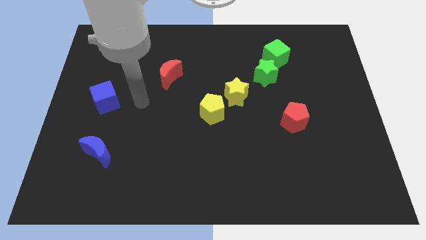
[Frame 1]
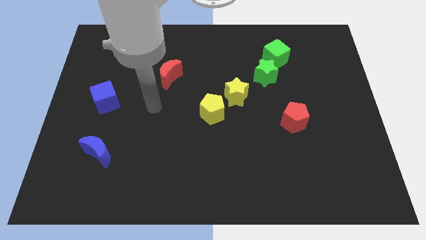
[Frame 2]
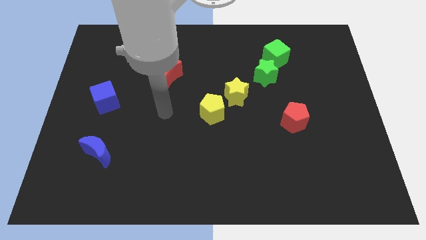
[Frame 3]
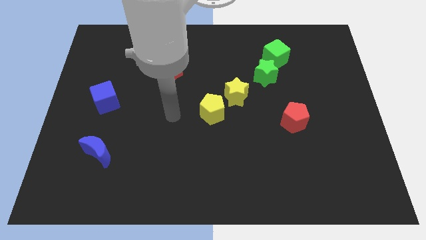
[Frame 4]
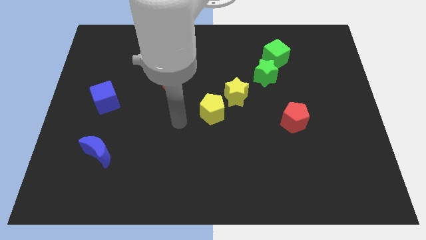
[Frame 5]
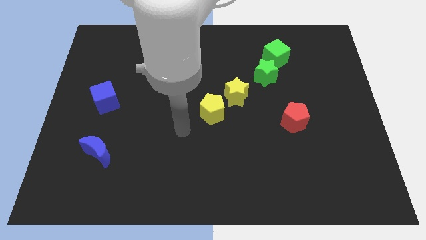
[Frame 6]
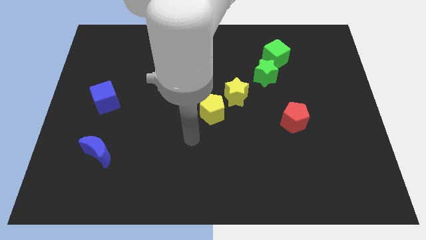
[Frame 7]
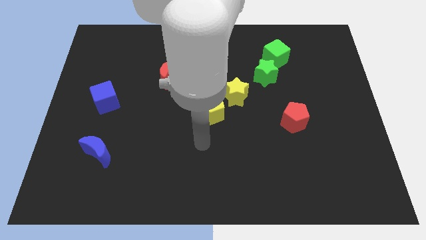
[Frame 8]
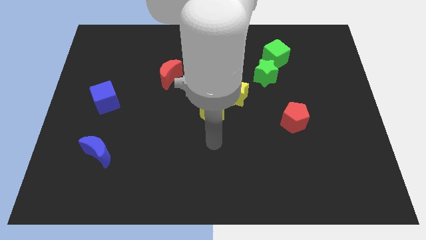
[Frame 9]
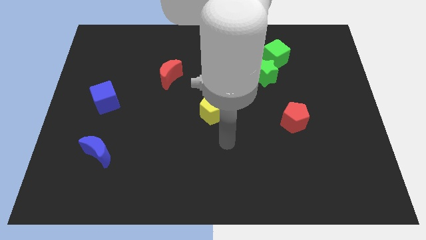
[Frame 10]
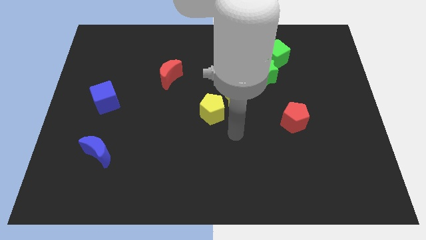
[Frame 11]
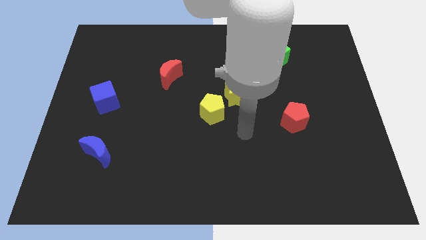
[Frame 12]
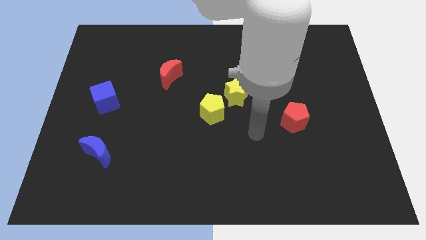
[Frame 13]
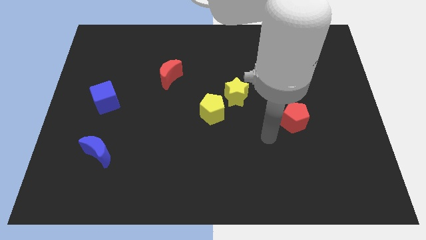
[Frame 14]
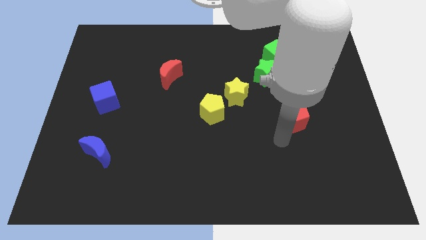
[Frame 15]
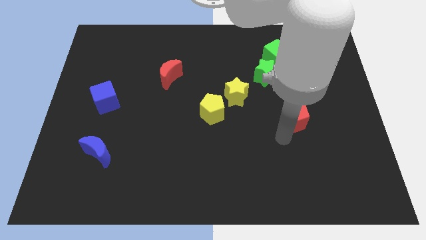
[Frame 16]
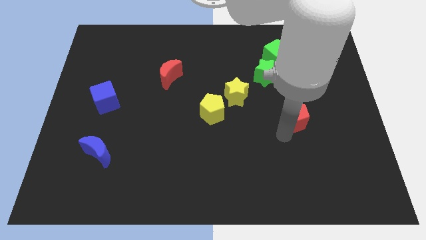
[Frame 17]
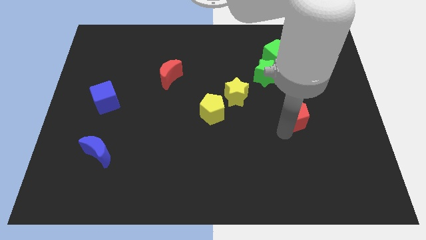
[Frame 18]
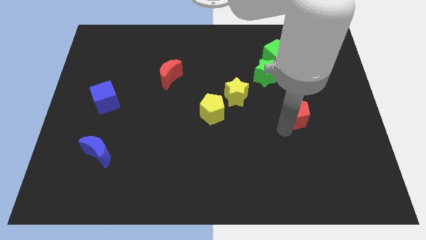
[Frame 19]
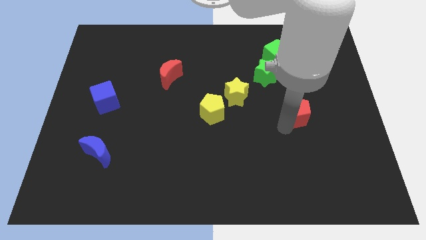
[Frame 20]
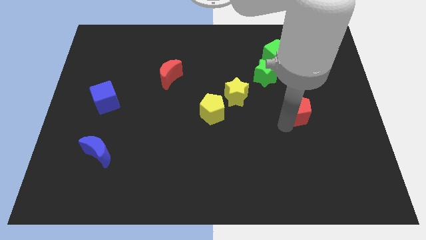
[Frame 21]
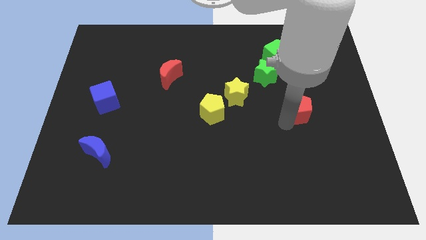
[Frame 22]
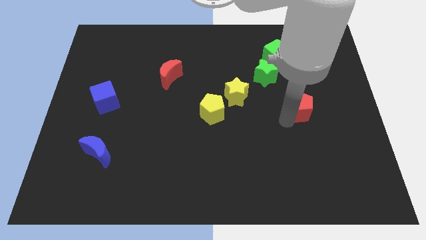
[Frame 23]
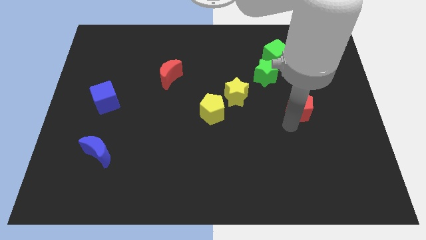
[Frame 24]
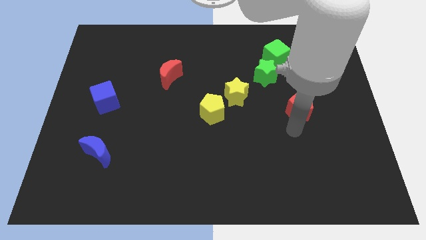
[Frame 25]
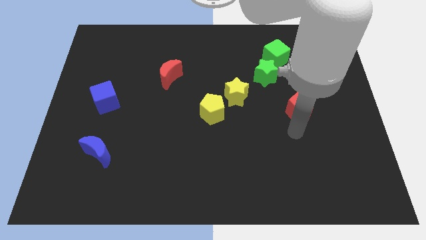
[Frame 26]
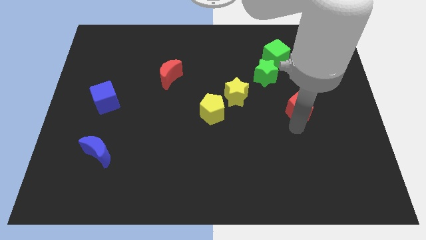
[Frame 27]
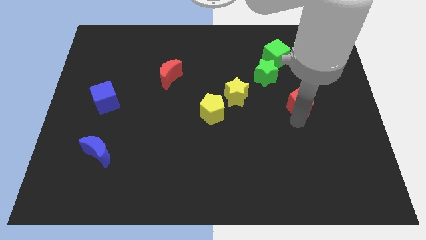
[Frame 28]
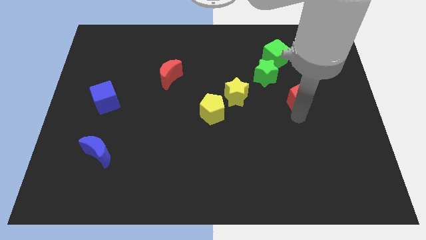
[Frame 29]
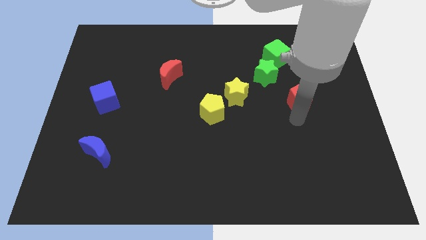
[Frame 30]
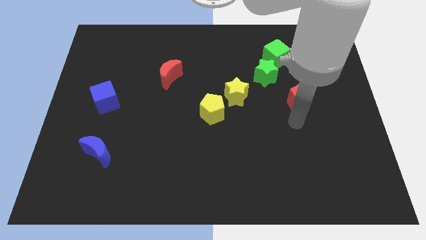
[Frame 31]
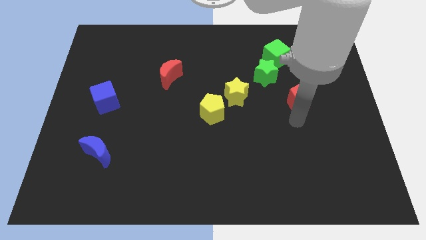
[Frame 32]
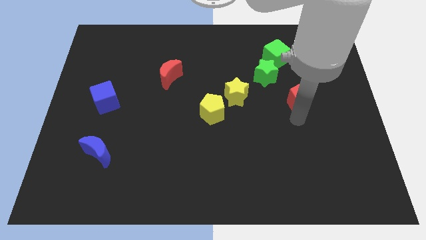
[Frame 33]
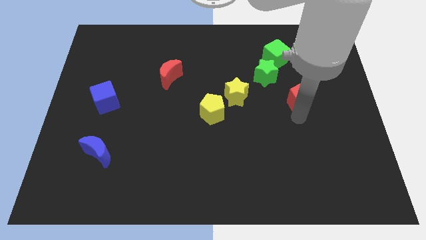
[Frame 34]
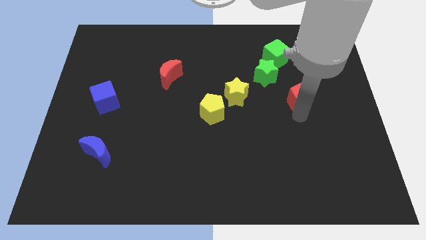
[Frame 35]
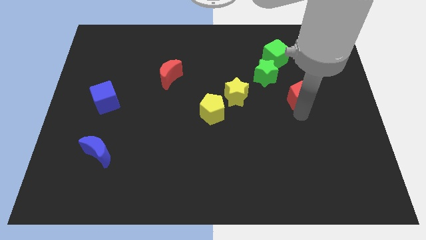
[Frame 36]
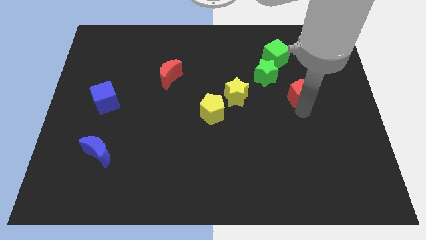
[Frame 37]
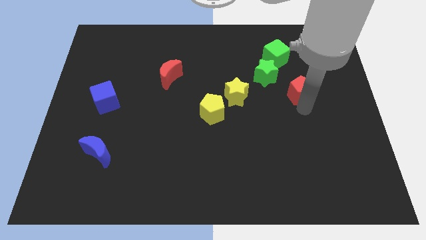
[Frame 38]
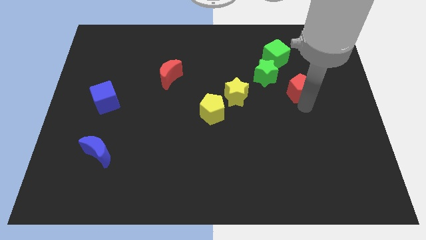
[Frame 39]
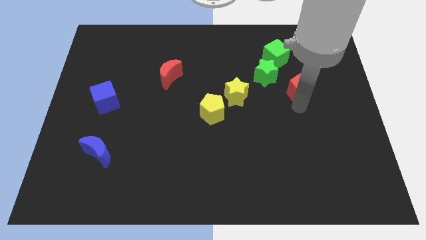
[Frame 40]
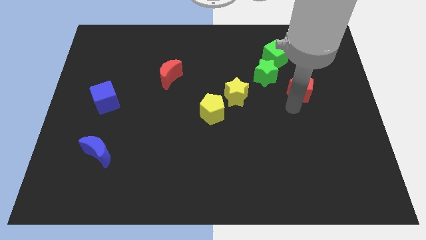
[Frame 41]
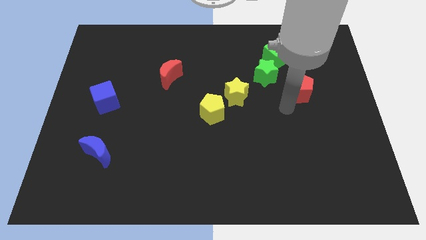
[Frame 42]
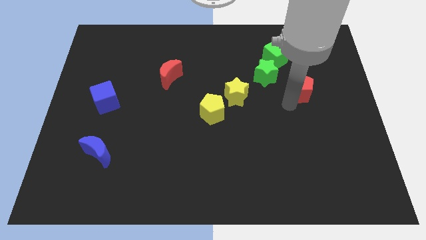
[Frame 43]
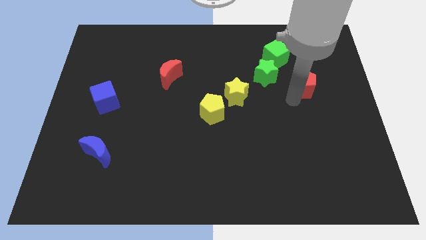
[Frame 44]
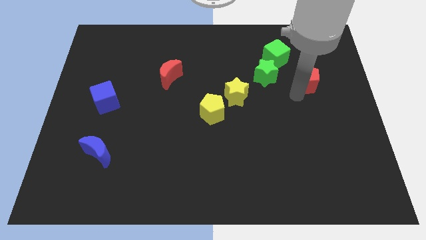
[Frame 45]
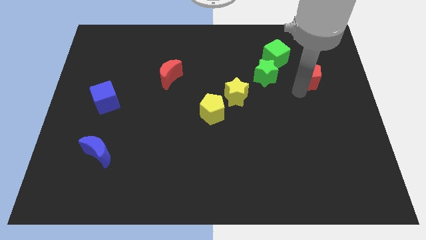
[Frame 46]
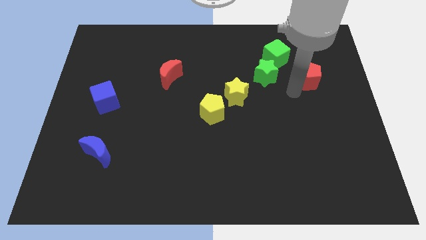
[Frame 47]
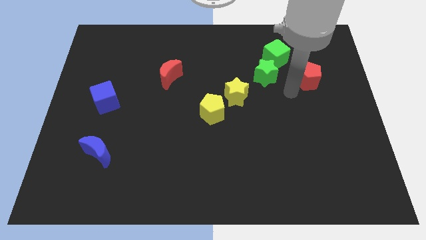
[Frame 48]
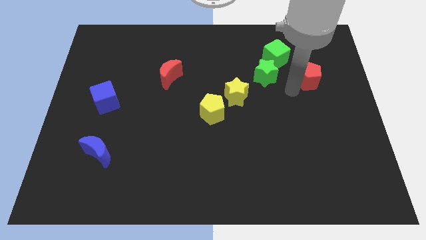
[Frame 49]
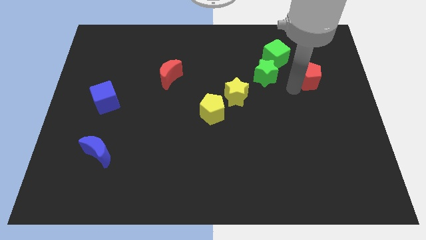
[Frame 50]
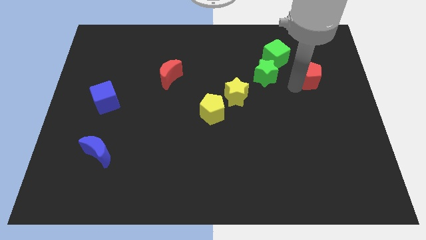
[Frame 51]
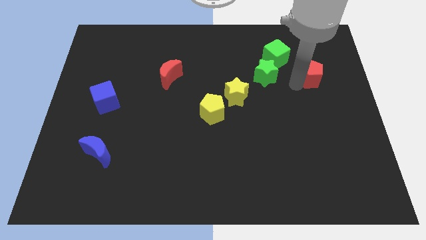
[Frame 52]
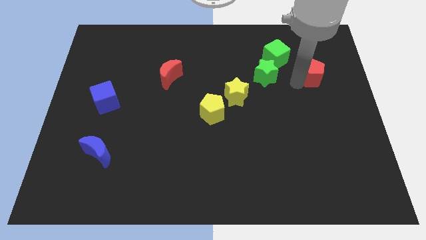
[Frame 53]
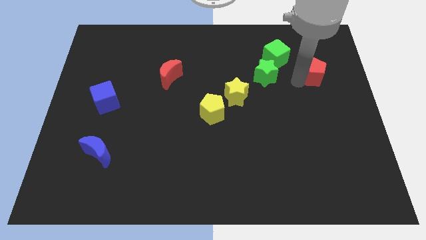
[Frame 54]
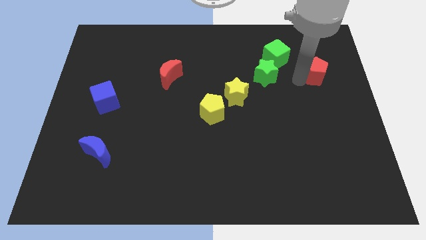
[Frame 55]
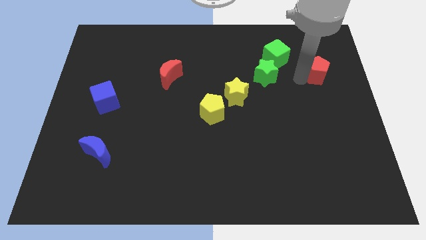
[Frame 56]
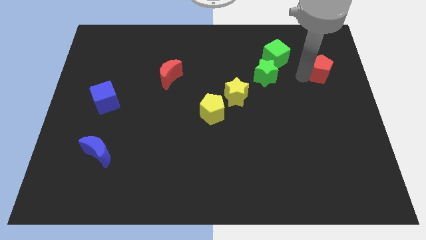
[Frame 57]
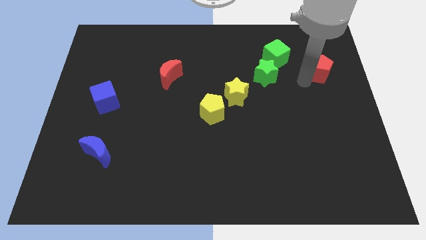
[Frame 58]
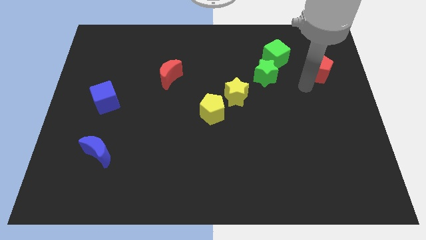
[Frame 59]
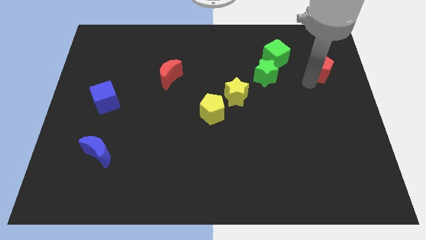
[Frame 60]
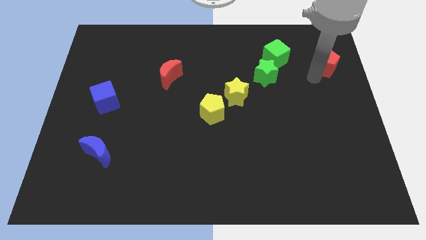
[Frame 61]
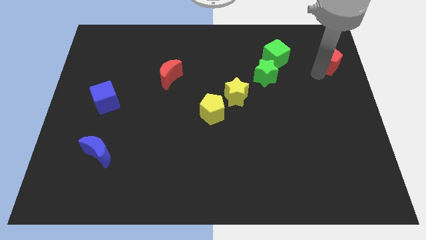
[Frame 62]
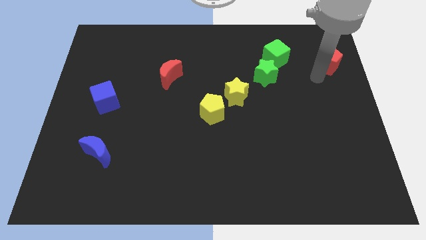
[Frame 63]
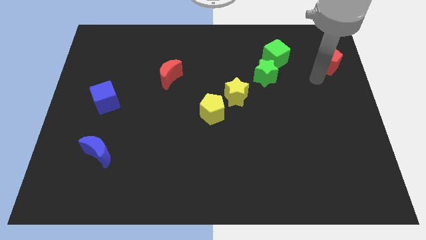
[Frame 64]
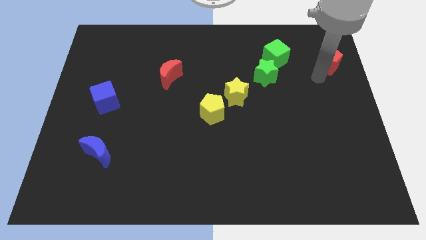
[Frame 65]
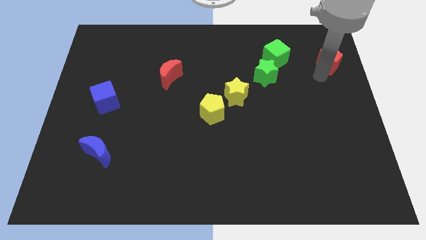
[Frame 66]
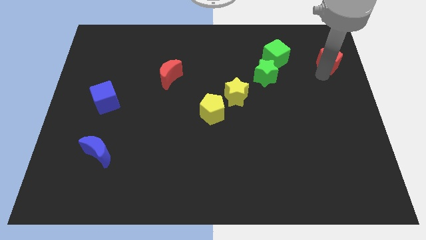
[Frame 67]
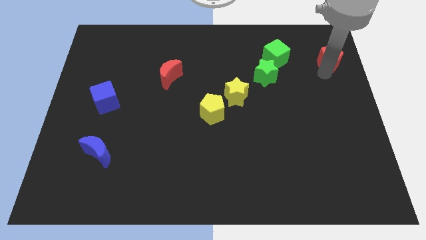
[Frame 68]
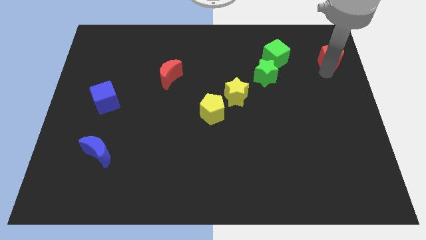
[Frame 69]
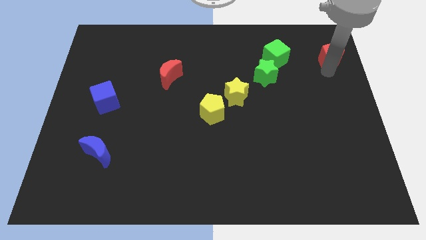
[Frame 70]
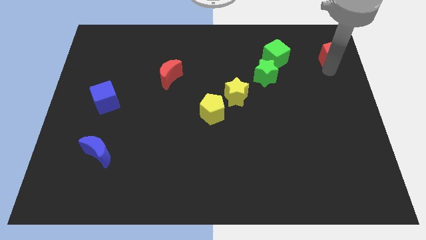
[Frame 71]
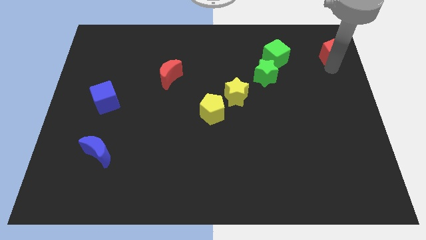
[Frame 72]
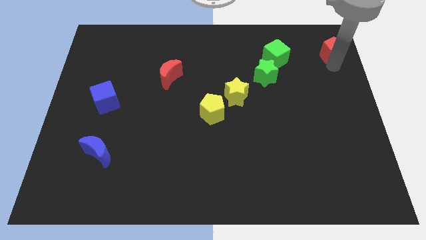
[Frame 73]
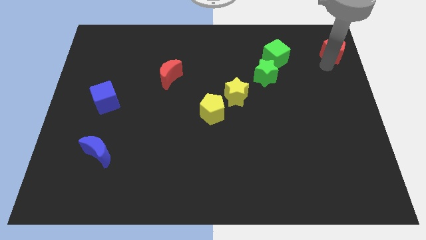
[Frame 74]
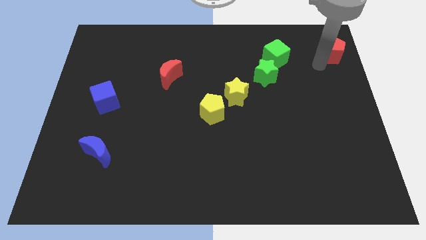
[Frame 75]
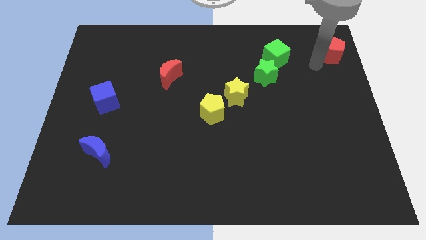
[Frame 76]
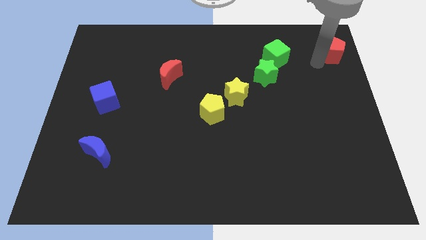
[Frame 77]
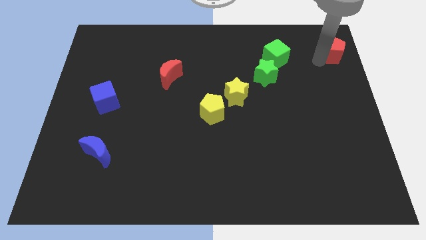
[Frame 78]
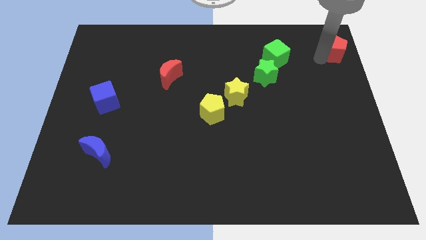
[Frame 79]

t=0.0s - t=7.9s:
slide the red pentagon to the top right corner

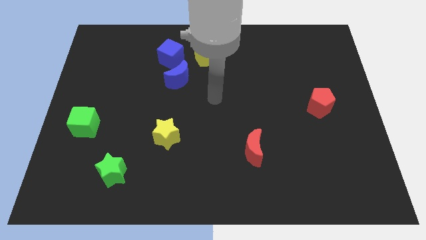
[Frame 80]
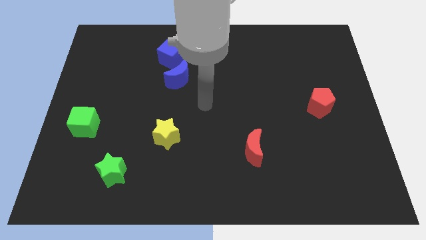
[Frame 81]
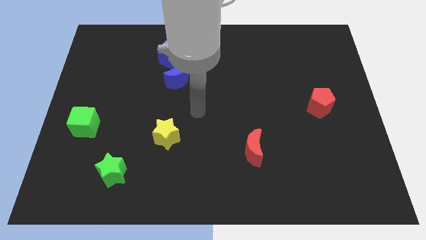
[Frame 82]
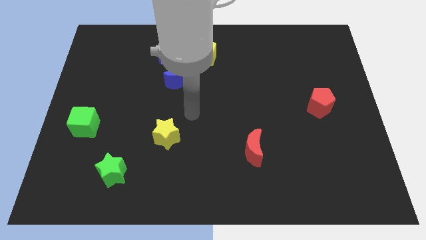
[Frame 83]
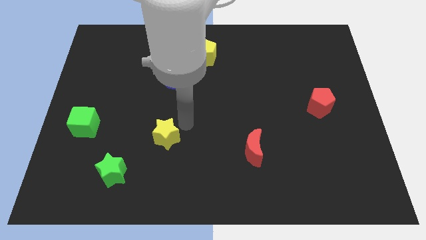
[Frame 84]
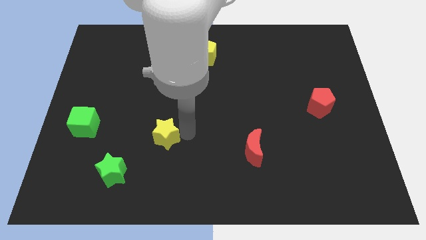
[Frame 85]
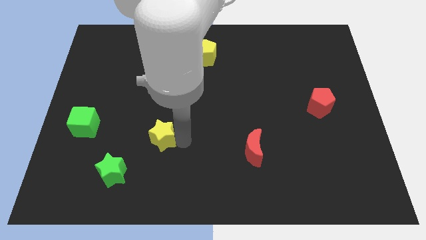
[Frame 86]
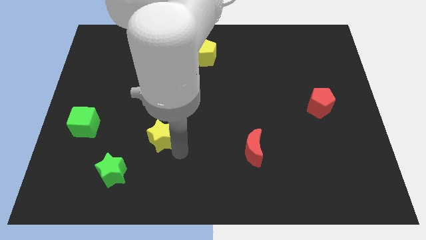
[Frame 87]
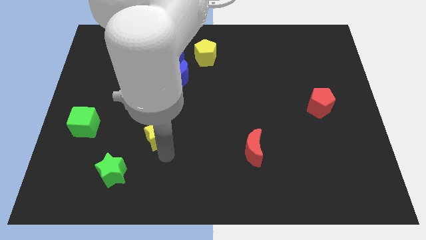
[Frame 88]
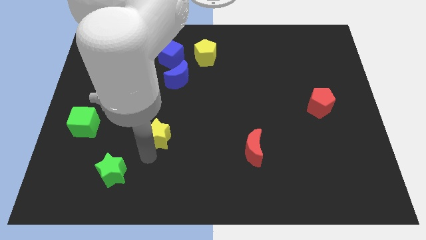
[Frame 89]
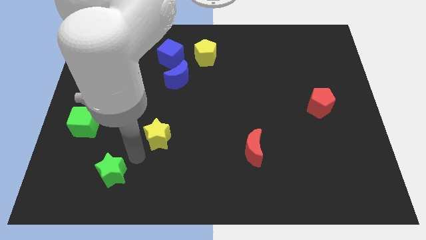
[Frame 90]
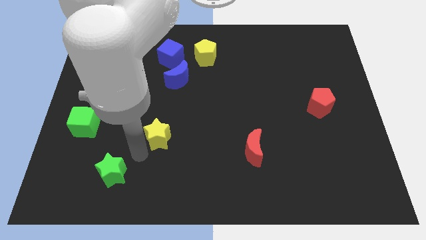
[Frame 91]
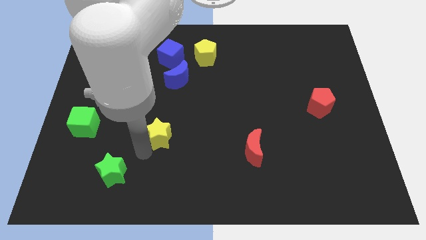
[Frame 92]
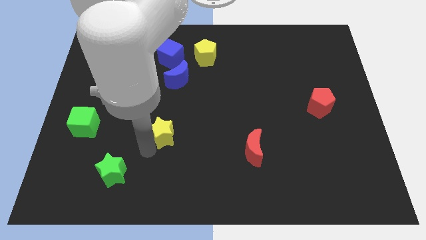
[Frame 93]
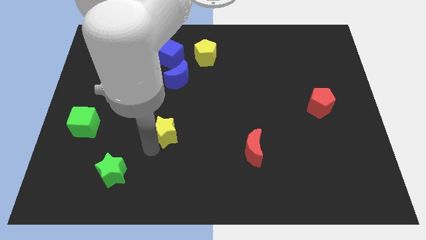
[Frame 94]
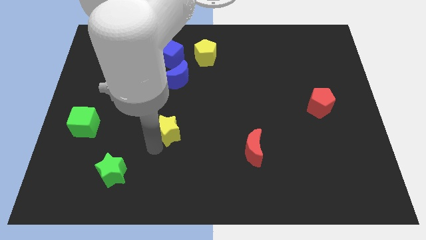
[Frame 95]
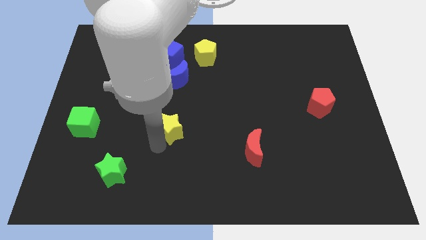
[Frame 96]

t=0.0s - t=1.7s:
push the yellow star to the center of the board
